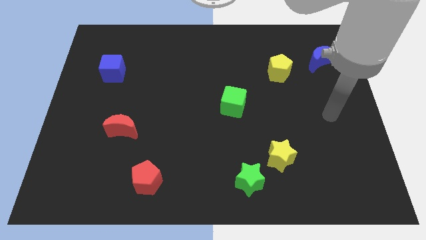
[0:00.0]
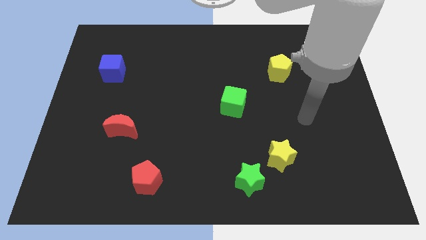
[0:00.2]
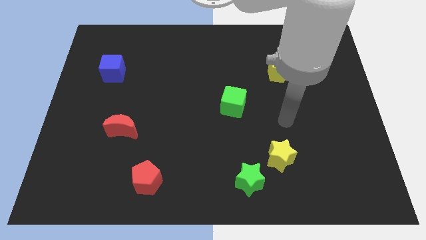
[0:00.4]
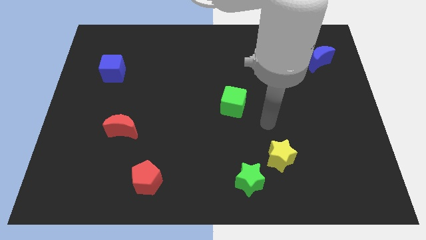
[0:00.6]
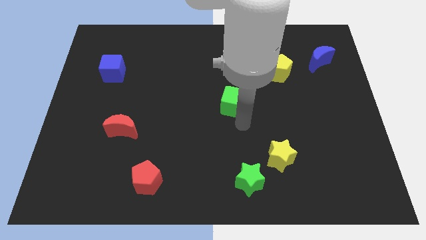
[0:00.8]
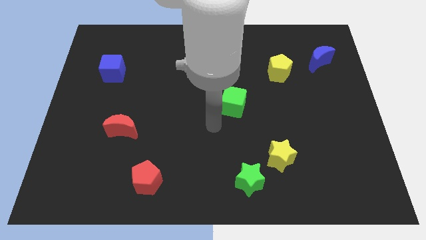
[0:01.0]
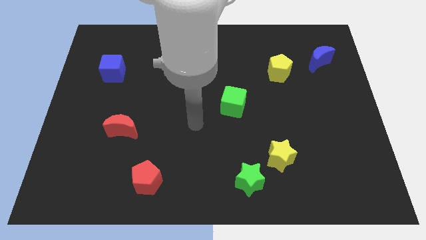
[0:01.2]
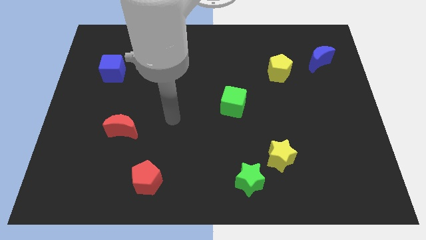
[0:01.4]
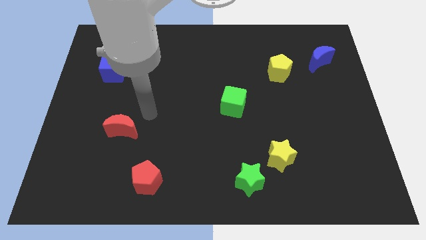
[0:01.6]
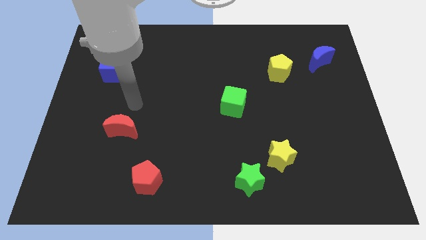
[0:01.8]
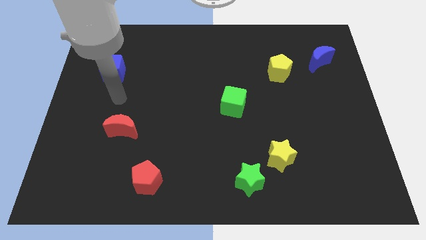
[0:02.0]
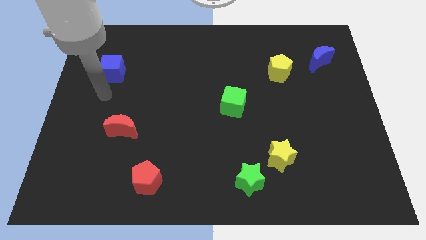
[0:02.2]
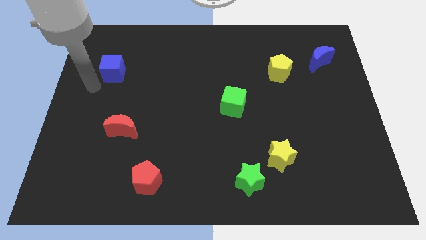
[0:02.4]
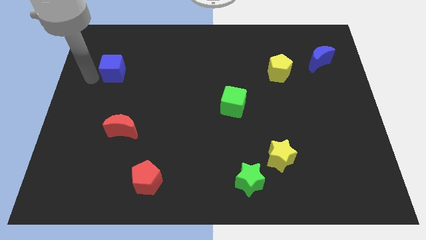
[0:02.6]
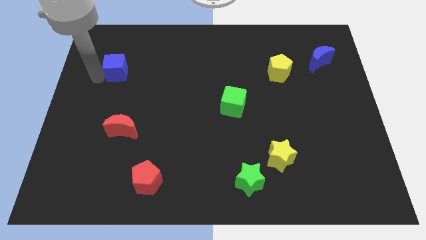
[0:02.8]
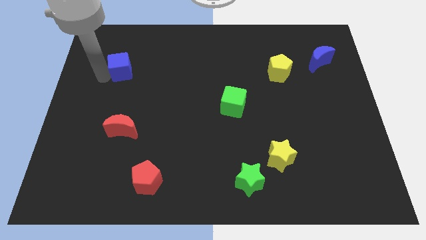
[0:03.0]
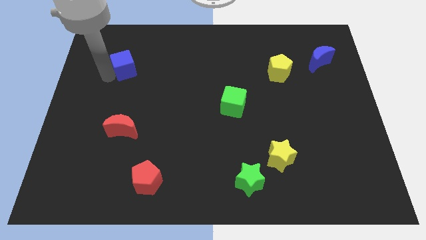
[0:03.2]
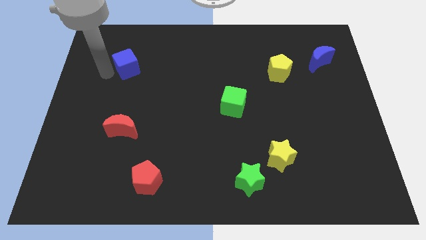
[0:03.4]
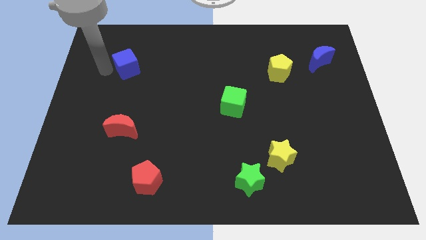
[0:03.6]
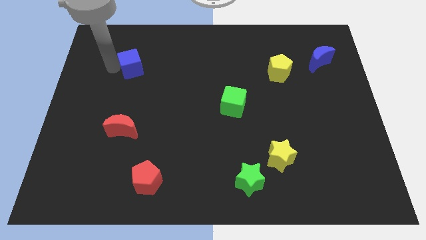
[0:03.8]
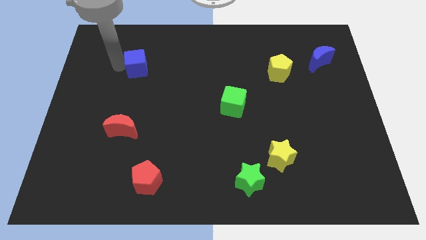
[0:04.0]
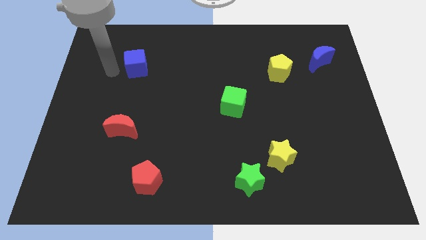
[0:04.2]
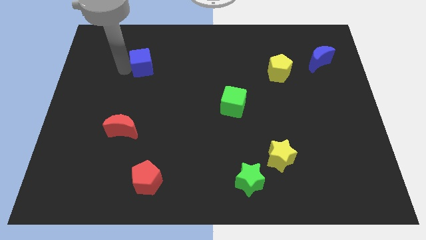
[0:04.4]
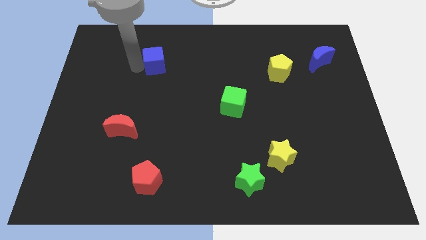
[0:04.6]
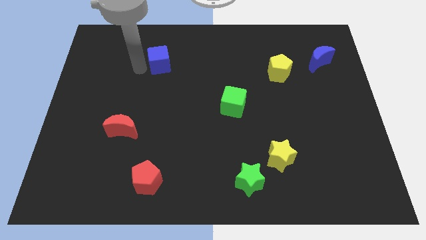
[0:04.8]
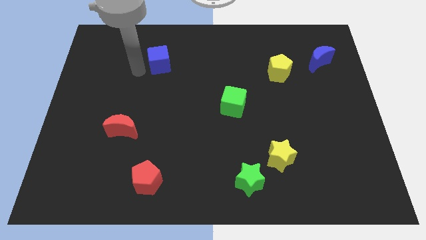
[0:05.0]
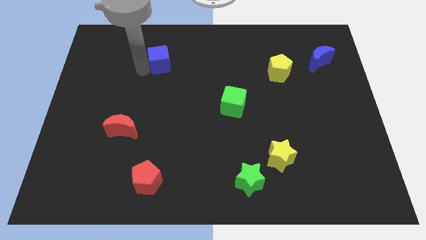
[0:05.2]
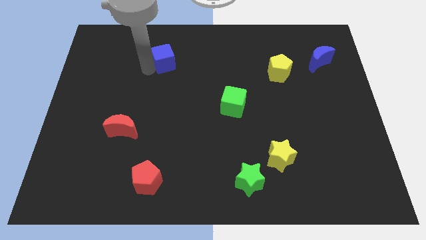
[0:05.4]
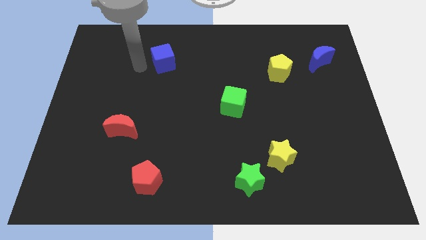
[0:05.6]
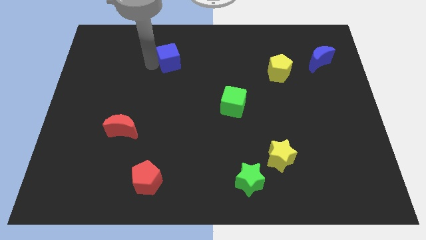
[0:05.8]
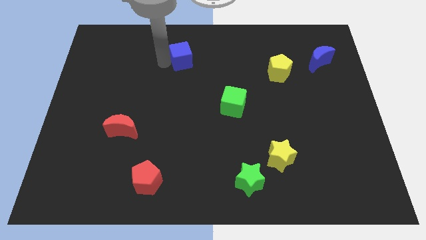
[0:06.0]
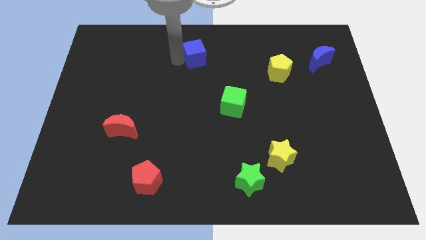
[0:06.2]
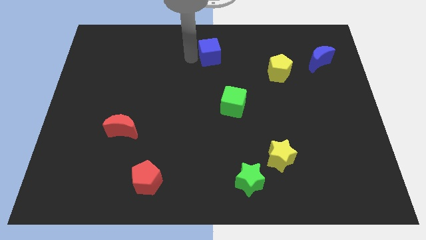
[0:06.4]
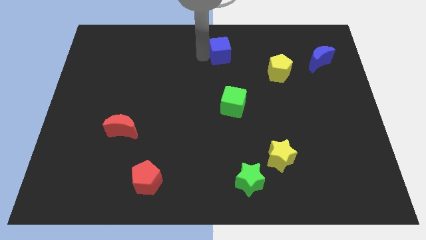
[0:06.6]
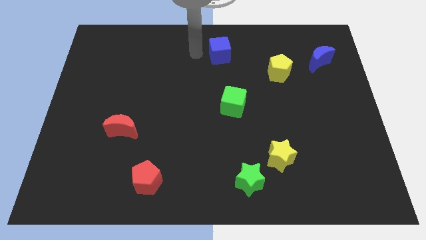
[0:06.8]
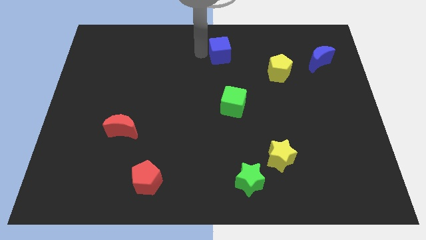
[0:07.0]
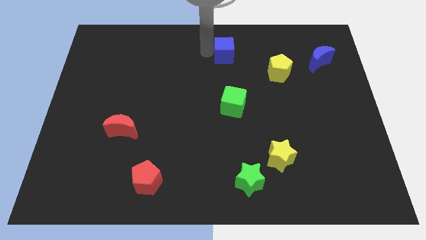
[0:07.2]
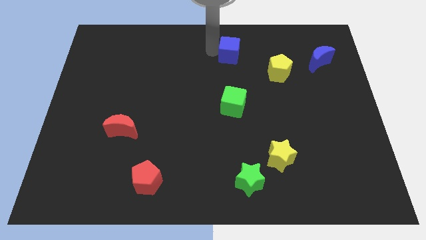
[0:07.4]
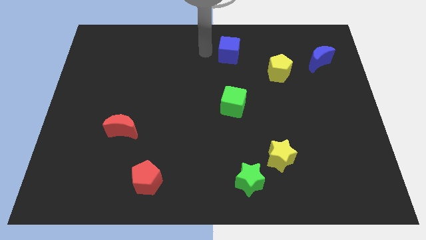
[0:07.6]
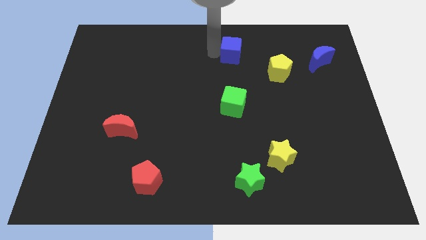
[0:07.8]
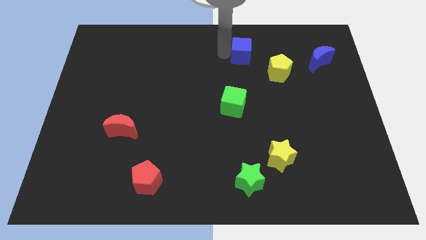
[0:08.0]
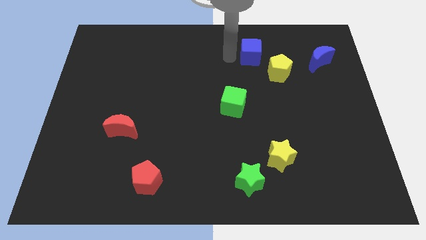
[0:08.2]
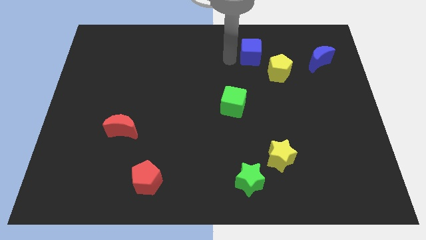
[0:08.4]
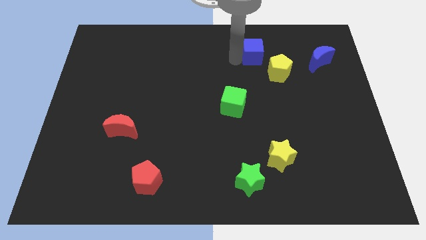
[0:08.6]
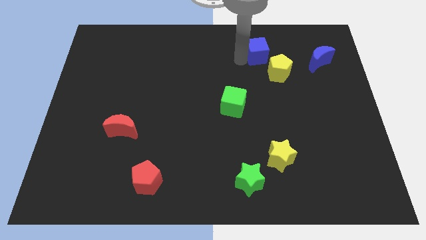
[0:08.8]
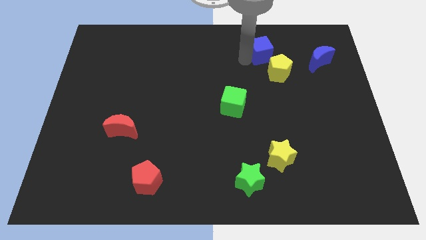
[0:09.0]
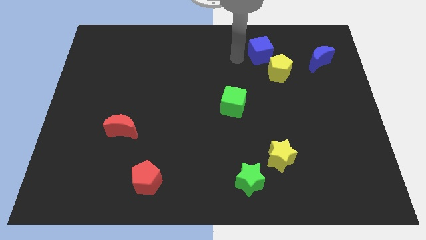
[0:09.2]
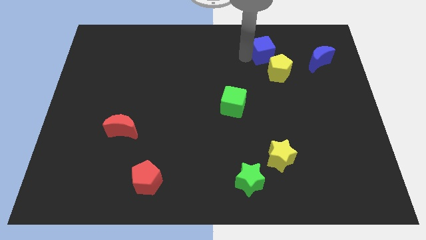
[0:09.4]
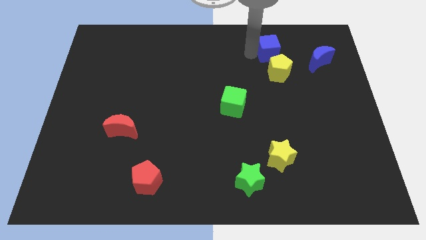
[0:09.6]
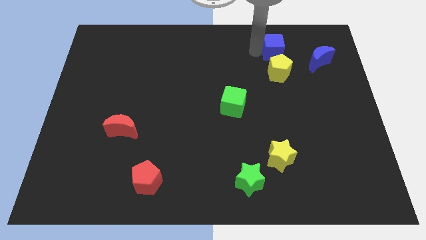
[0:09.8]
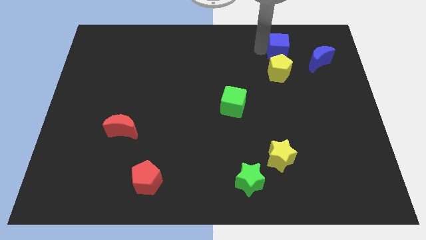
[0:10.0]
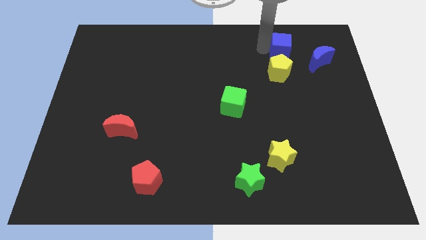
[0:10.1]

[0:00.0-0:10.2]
put the blue cube to the top right side of the yellow pentagon

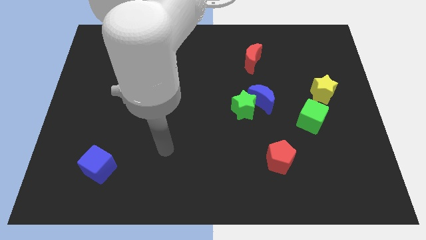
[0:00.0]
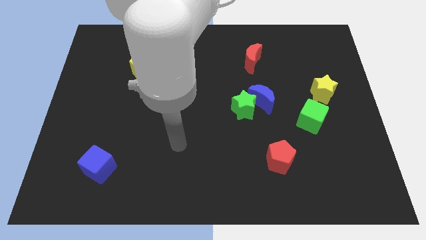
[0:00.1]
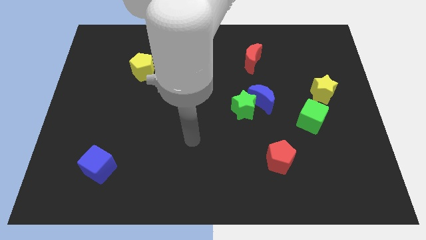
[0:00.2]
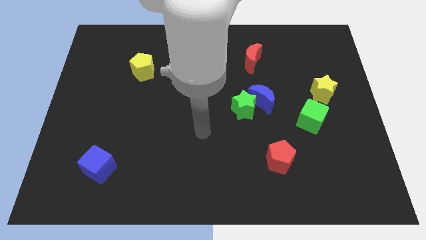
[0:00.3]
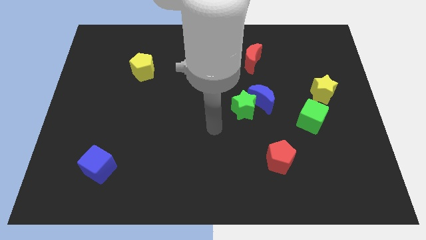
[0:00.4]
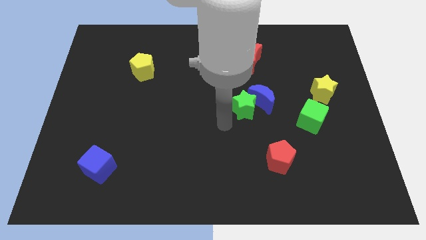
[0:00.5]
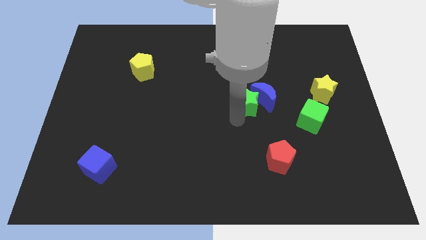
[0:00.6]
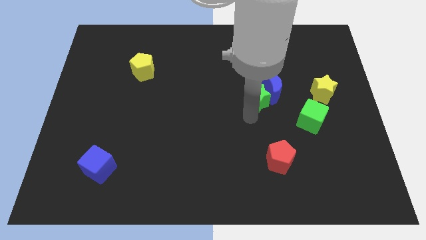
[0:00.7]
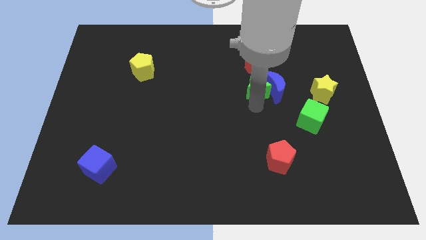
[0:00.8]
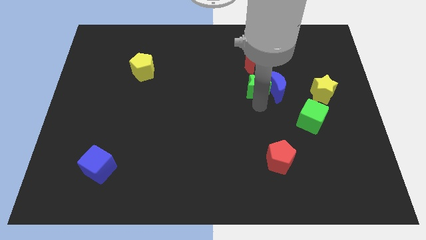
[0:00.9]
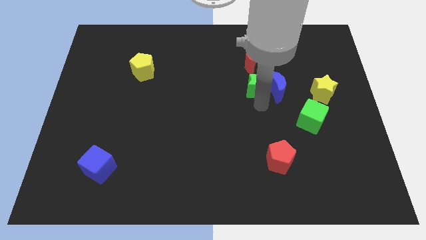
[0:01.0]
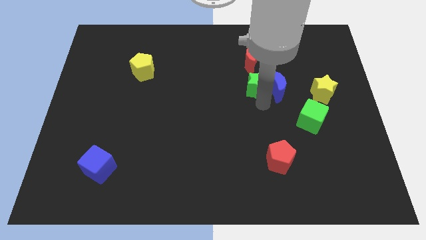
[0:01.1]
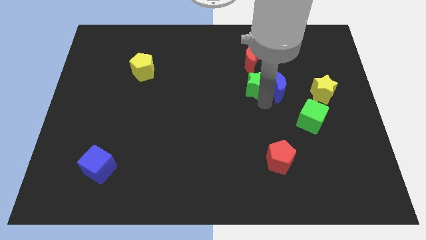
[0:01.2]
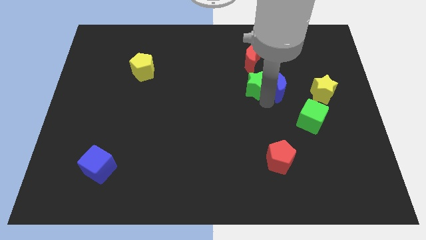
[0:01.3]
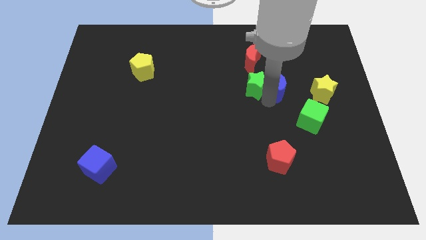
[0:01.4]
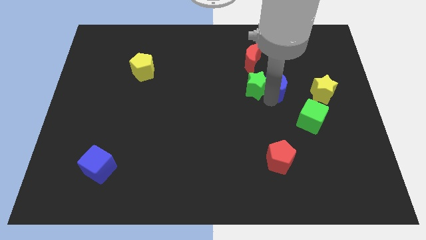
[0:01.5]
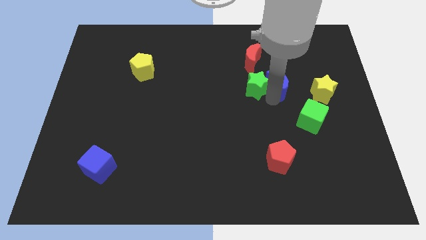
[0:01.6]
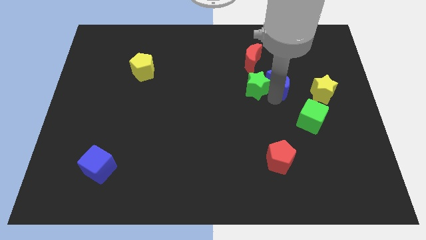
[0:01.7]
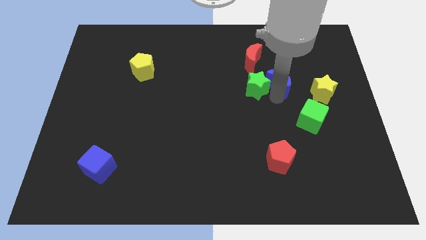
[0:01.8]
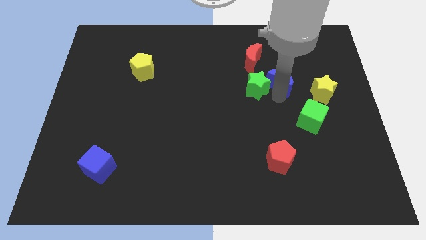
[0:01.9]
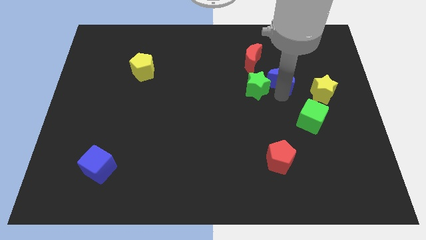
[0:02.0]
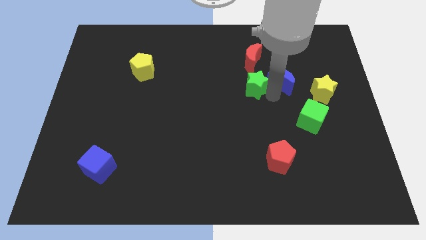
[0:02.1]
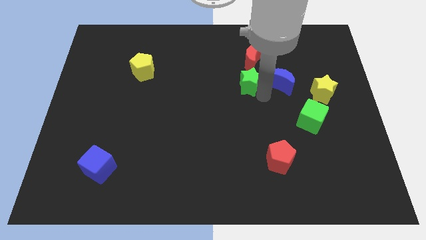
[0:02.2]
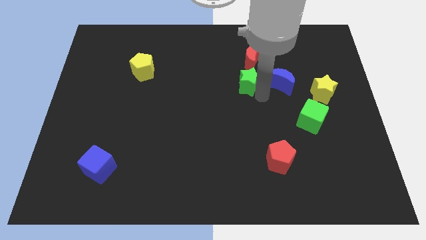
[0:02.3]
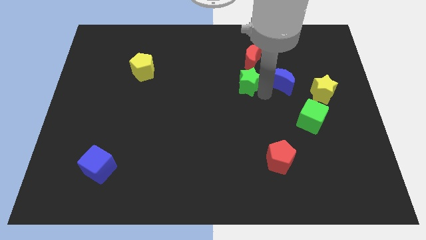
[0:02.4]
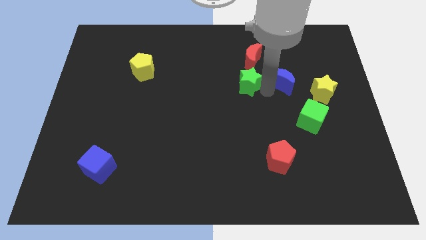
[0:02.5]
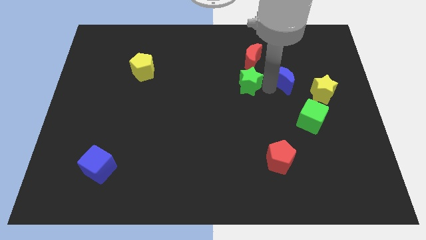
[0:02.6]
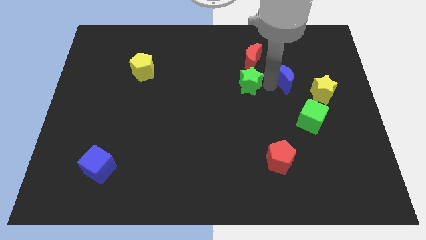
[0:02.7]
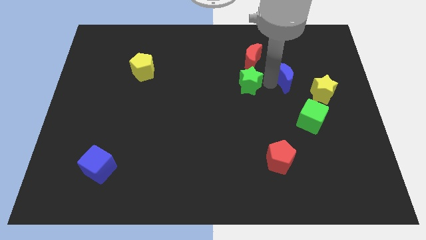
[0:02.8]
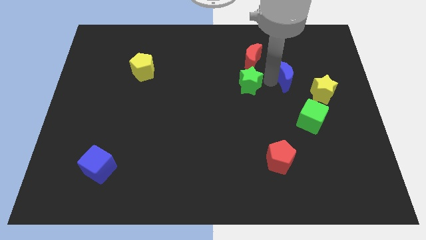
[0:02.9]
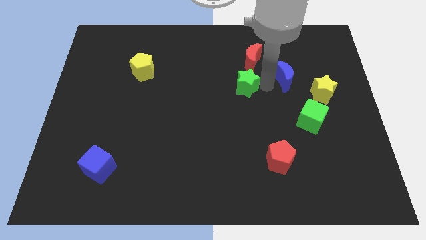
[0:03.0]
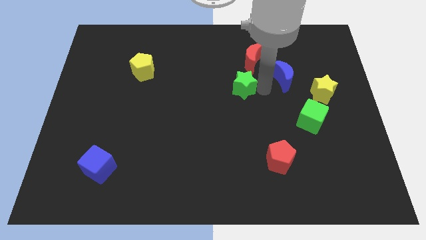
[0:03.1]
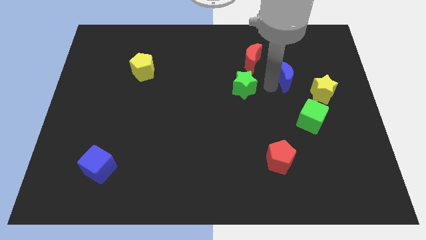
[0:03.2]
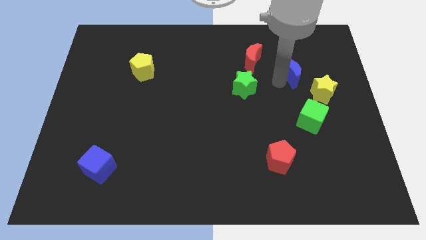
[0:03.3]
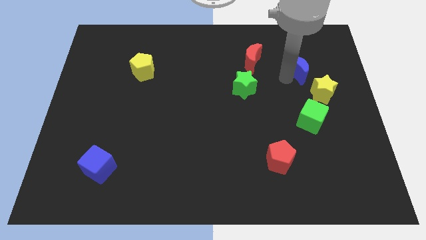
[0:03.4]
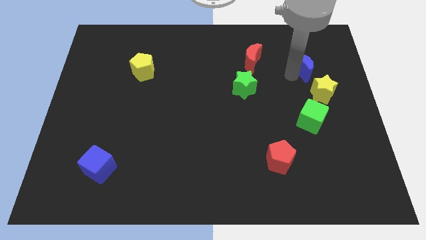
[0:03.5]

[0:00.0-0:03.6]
slide the blue moon to the top of the yellow star
